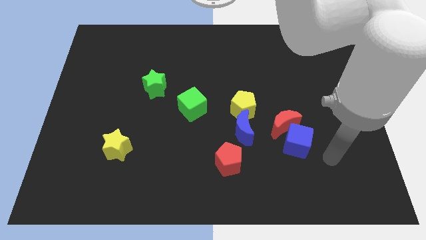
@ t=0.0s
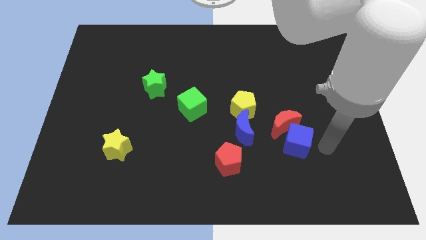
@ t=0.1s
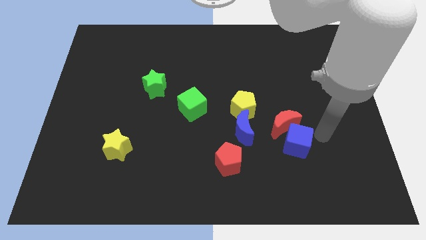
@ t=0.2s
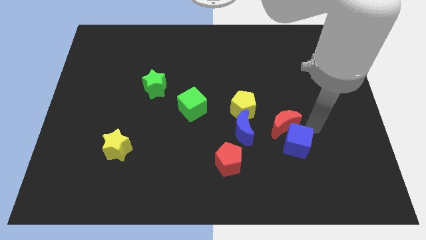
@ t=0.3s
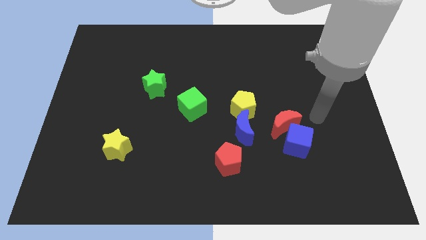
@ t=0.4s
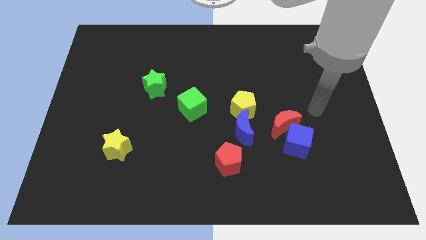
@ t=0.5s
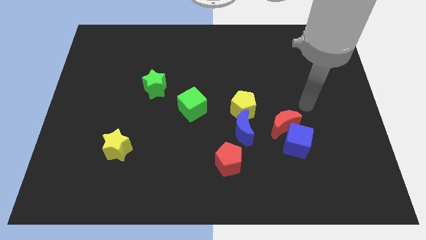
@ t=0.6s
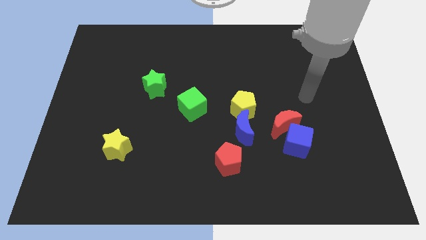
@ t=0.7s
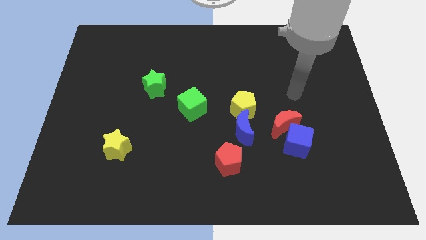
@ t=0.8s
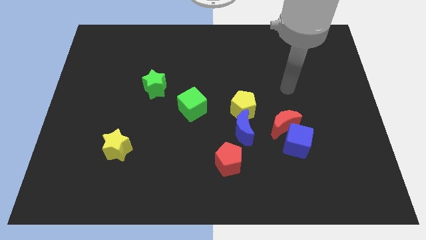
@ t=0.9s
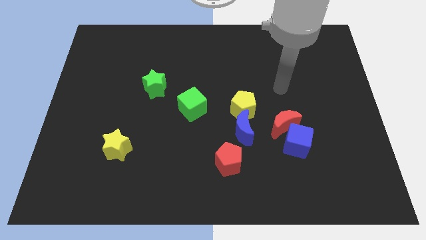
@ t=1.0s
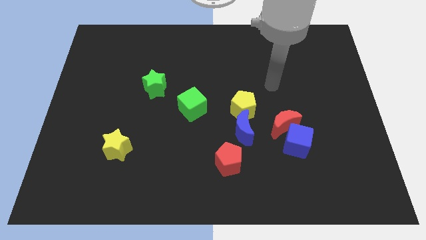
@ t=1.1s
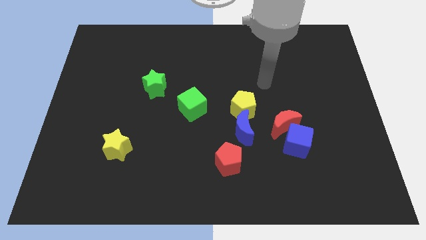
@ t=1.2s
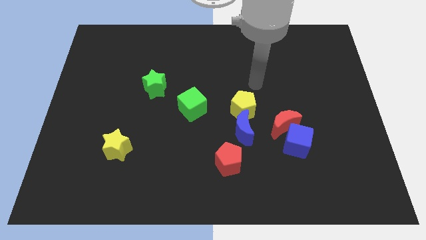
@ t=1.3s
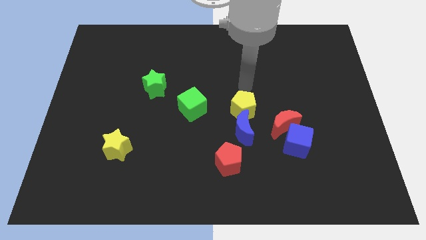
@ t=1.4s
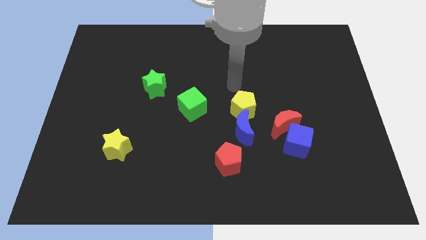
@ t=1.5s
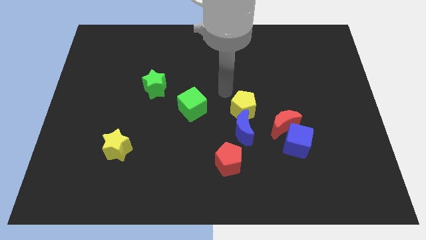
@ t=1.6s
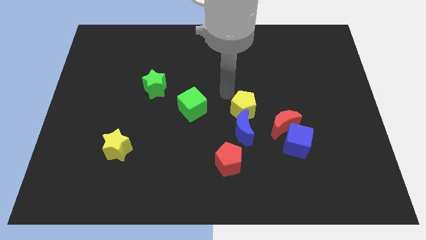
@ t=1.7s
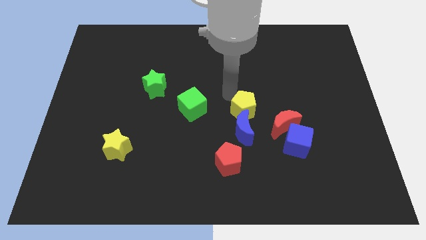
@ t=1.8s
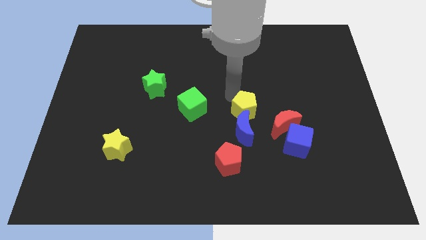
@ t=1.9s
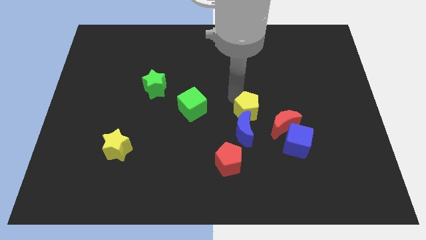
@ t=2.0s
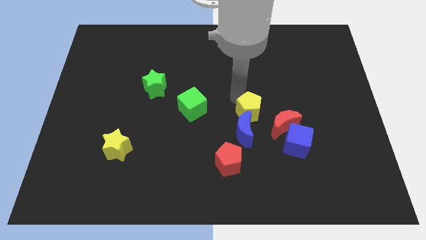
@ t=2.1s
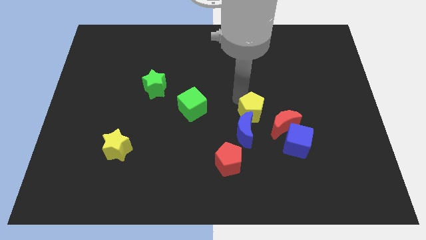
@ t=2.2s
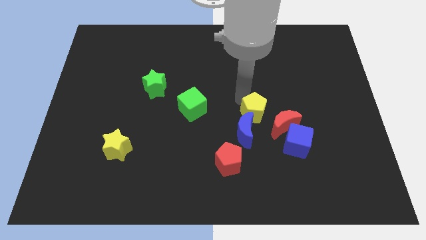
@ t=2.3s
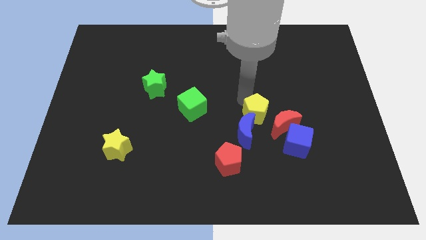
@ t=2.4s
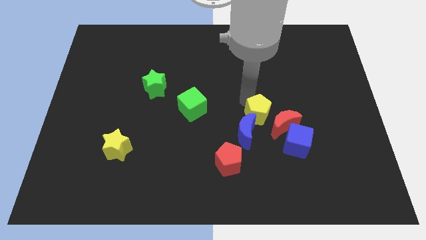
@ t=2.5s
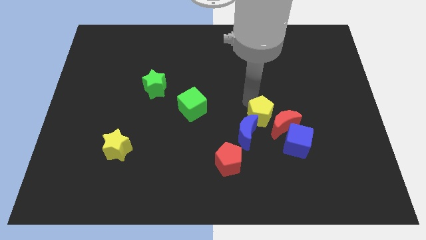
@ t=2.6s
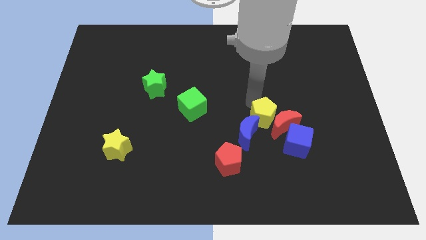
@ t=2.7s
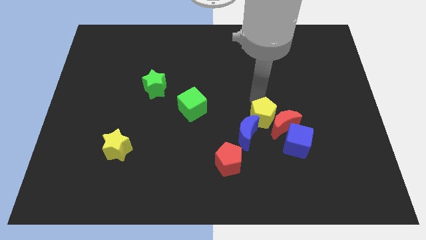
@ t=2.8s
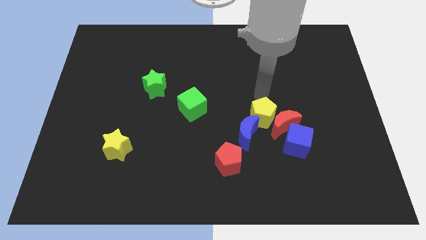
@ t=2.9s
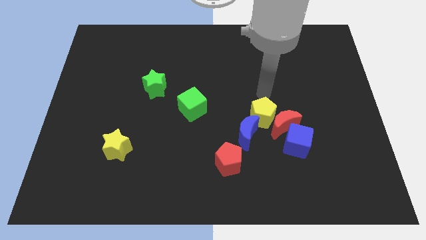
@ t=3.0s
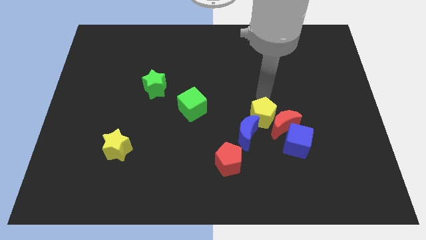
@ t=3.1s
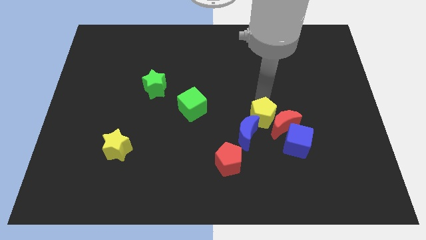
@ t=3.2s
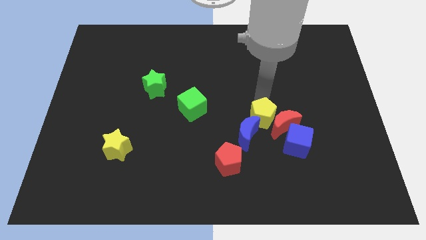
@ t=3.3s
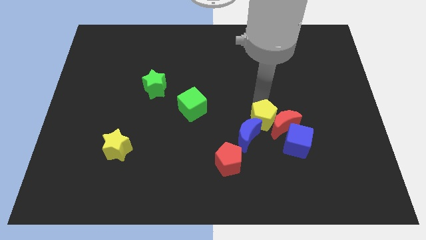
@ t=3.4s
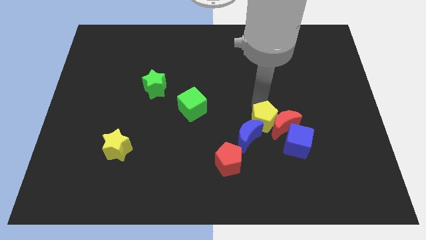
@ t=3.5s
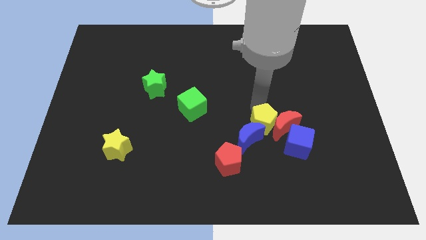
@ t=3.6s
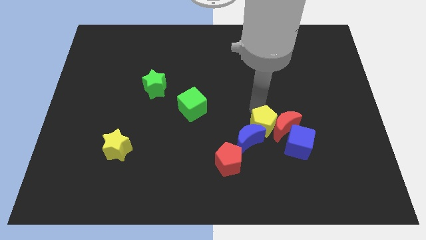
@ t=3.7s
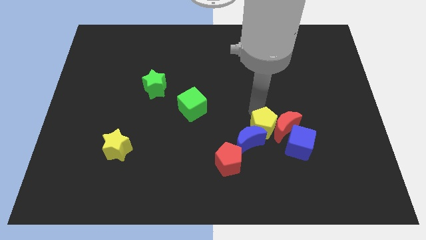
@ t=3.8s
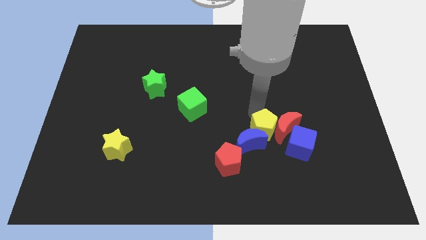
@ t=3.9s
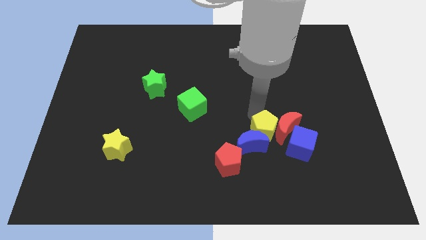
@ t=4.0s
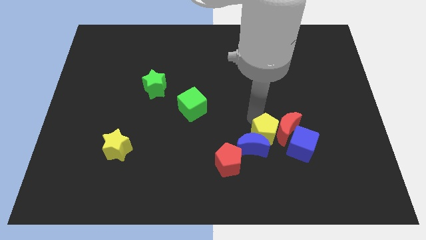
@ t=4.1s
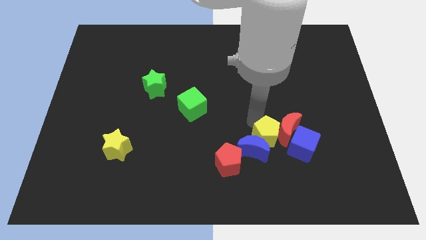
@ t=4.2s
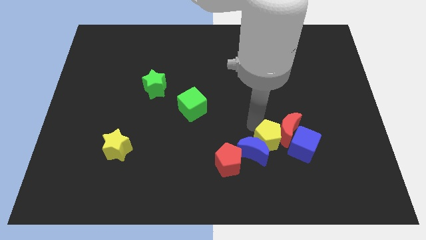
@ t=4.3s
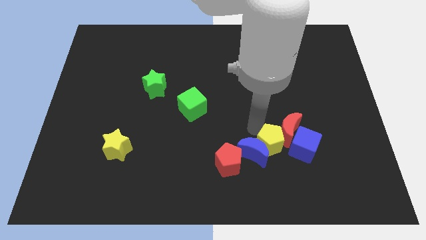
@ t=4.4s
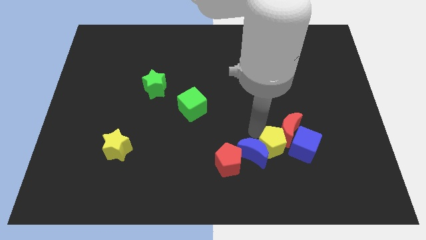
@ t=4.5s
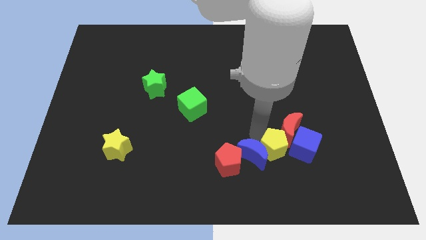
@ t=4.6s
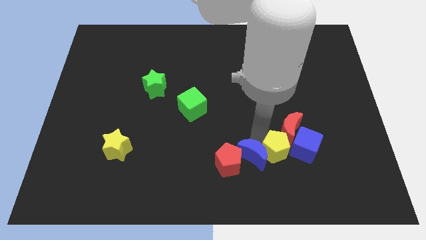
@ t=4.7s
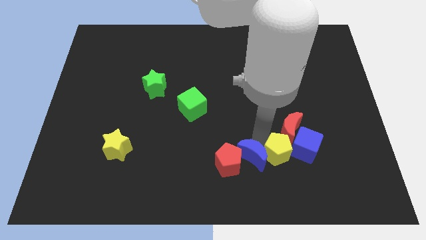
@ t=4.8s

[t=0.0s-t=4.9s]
push the yellow pentagon next to the blue cube

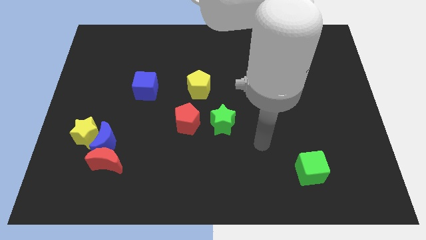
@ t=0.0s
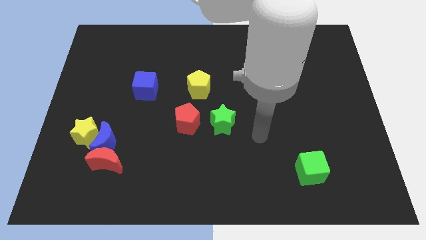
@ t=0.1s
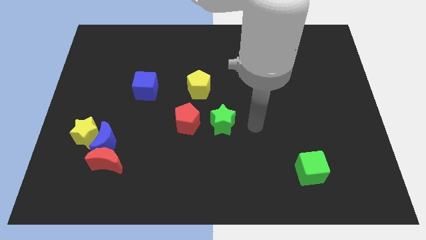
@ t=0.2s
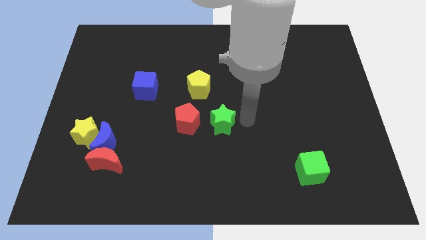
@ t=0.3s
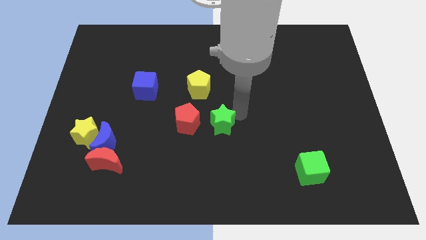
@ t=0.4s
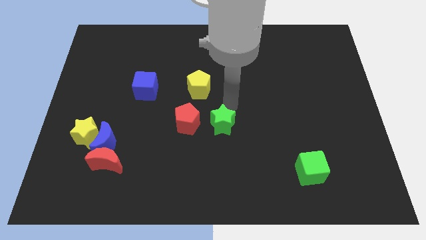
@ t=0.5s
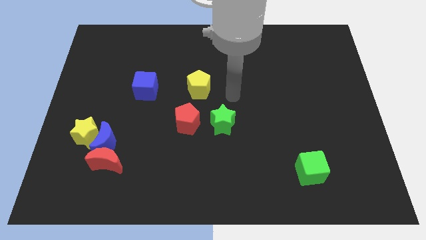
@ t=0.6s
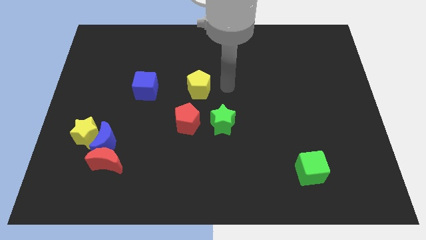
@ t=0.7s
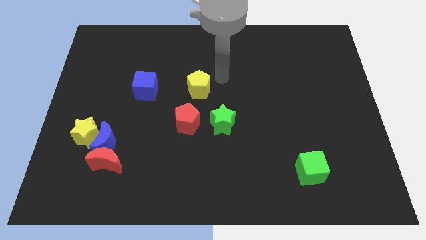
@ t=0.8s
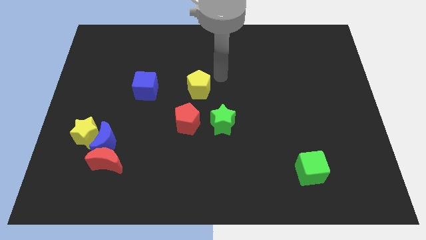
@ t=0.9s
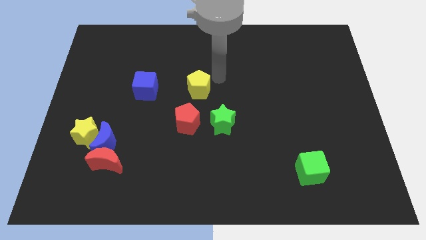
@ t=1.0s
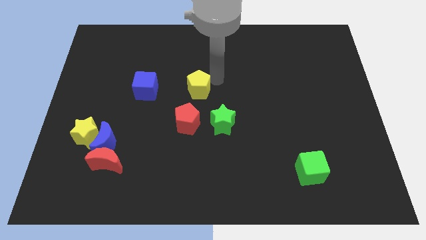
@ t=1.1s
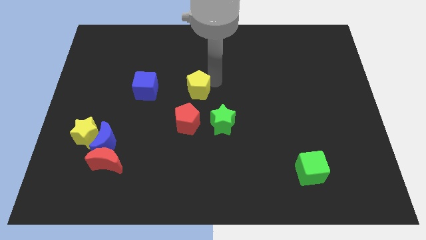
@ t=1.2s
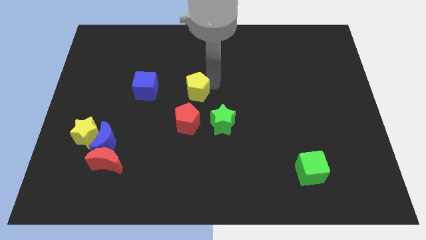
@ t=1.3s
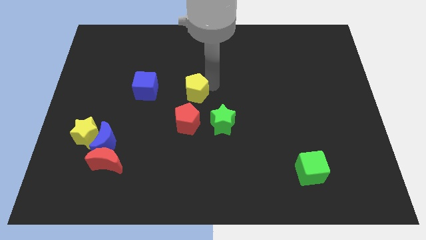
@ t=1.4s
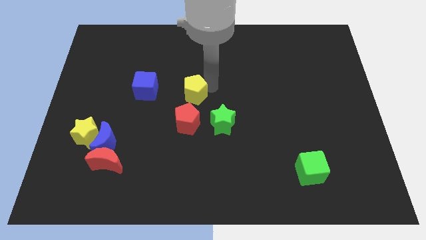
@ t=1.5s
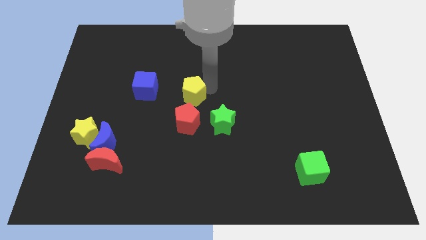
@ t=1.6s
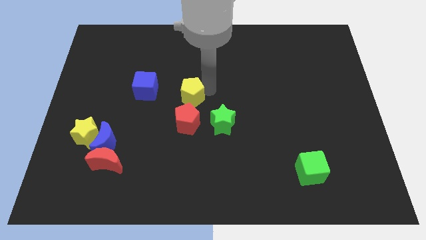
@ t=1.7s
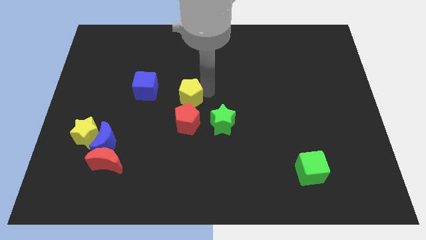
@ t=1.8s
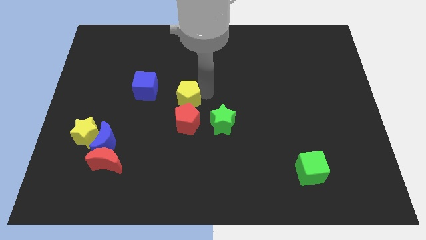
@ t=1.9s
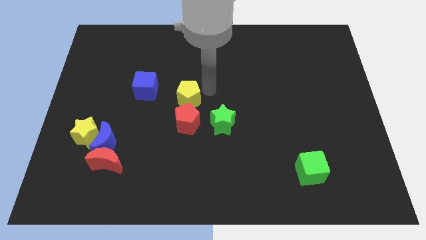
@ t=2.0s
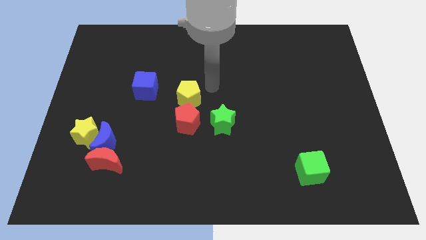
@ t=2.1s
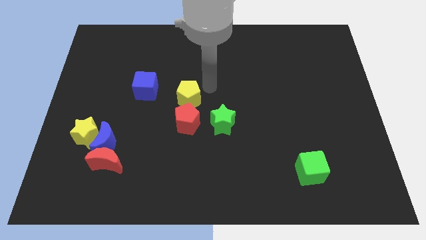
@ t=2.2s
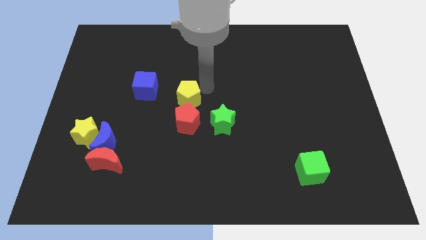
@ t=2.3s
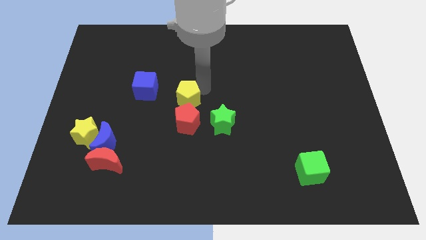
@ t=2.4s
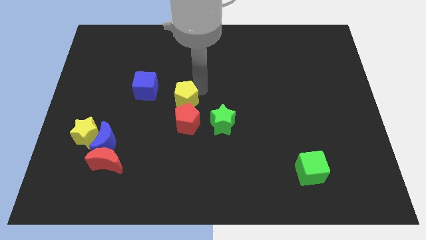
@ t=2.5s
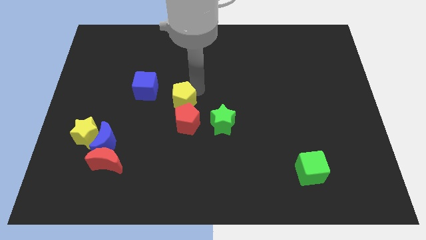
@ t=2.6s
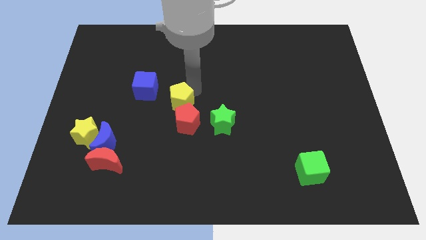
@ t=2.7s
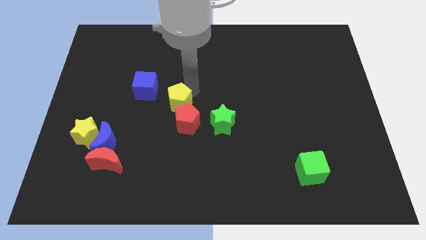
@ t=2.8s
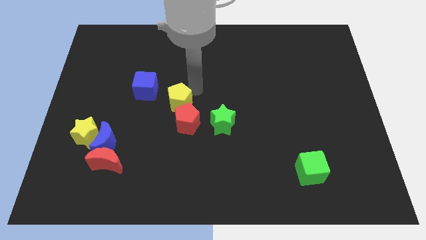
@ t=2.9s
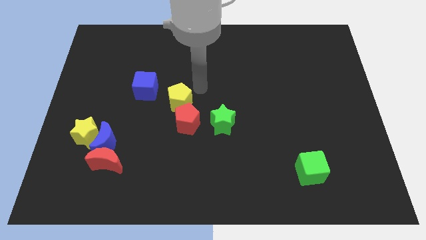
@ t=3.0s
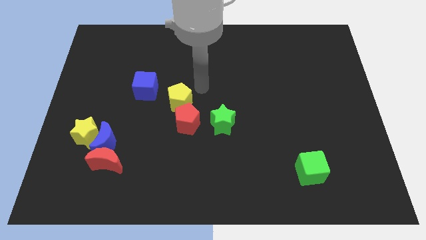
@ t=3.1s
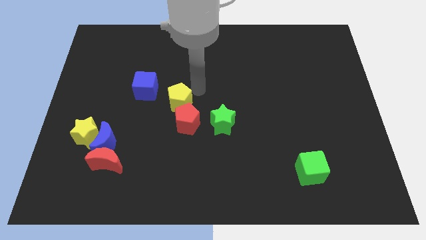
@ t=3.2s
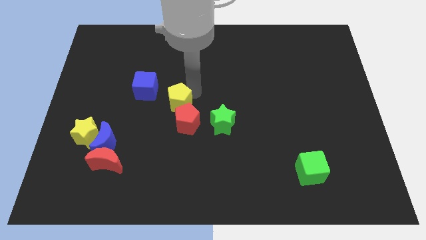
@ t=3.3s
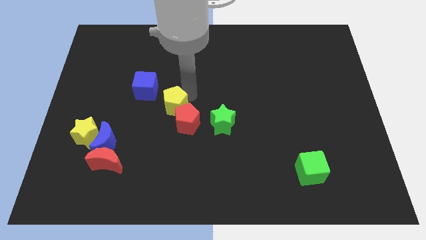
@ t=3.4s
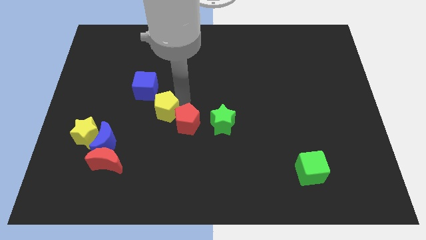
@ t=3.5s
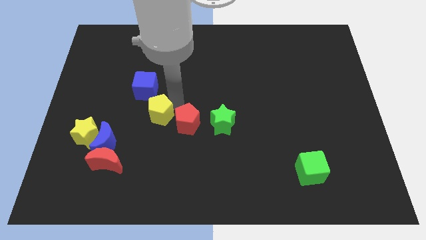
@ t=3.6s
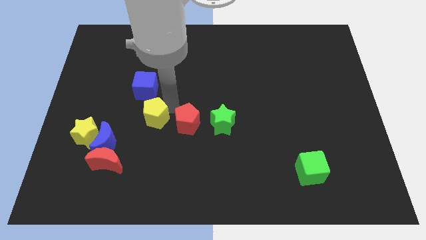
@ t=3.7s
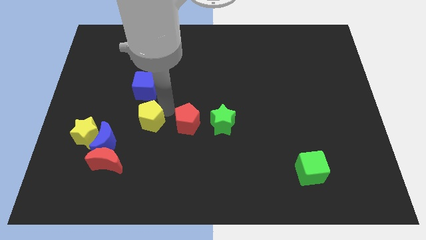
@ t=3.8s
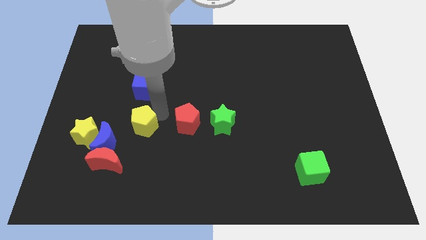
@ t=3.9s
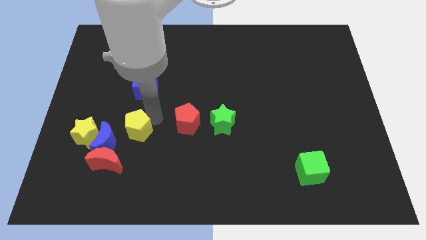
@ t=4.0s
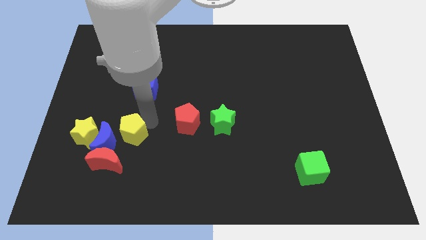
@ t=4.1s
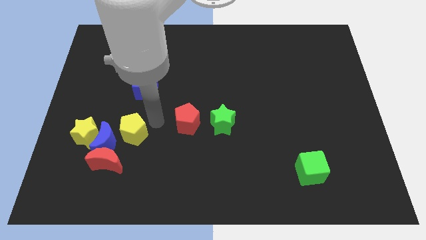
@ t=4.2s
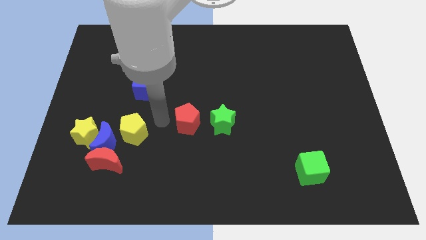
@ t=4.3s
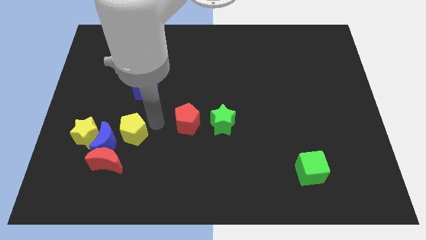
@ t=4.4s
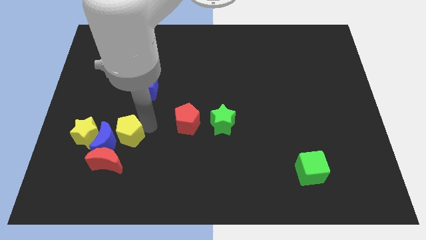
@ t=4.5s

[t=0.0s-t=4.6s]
move the yellow pentagon to the blue moon
